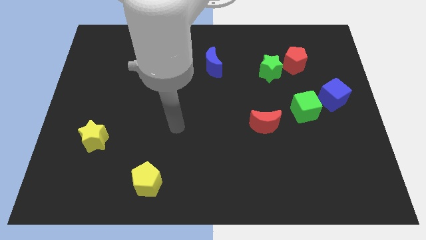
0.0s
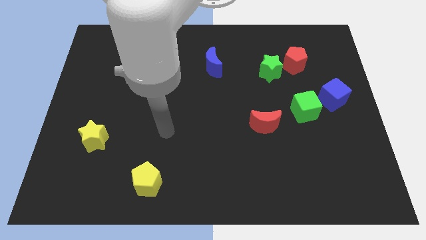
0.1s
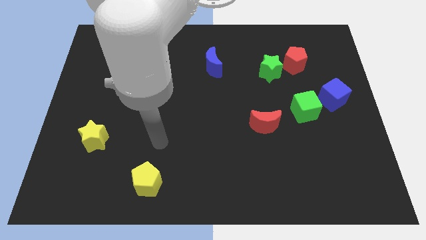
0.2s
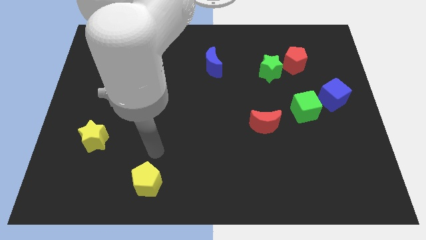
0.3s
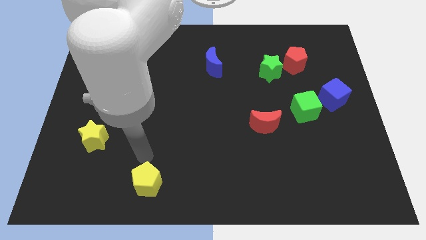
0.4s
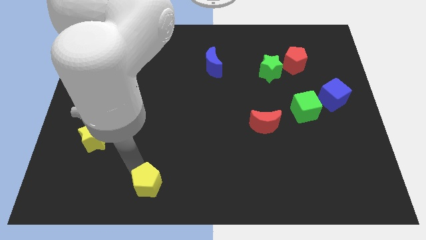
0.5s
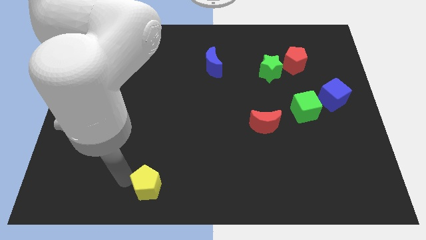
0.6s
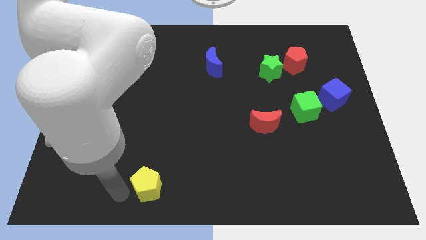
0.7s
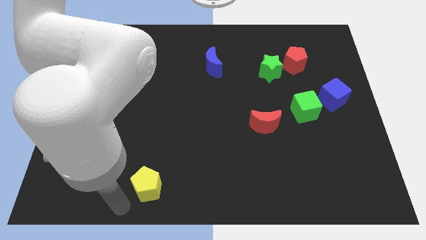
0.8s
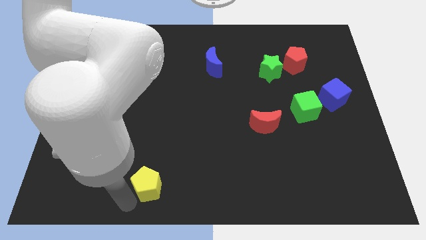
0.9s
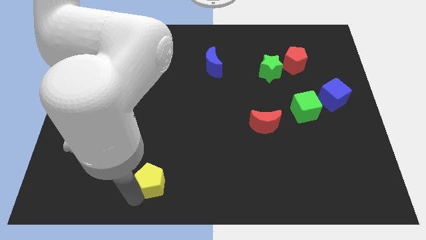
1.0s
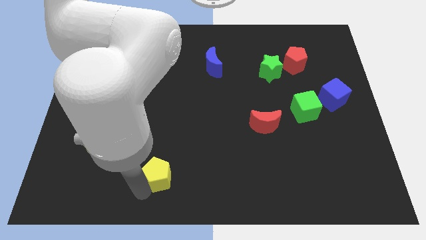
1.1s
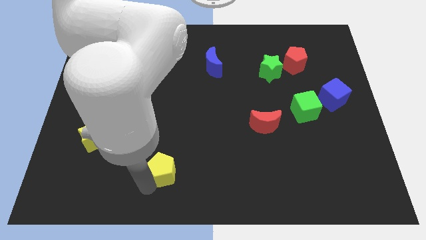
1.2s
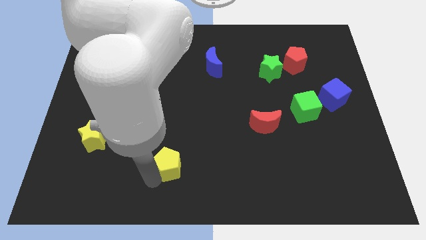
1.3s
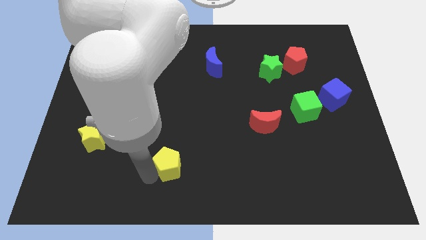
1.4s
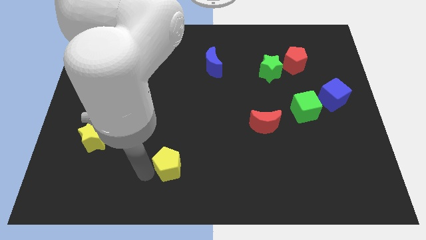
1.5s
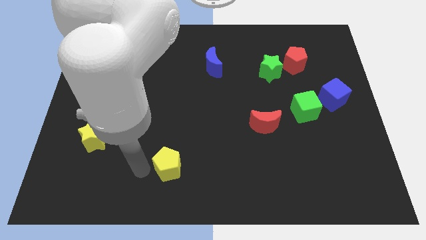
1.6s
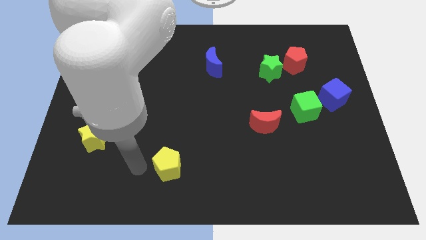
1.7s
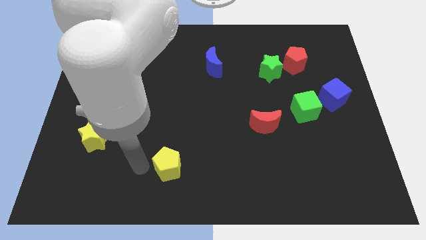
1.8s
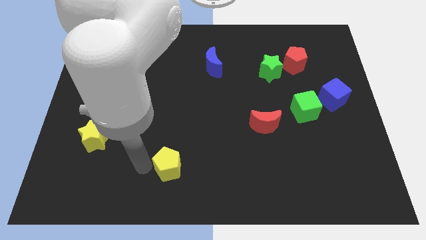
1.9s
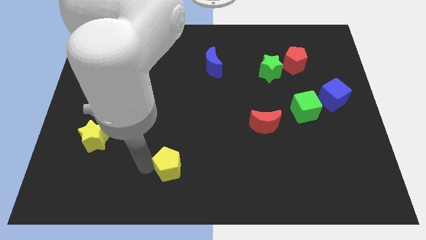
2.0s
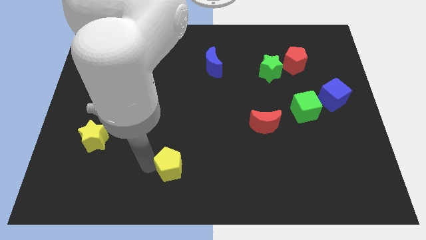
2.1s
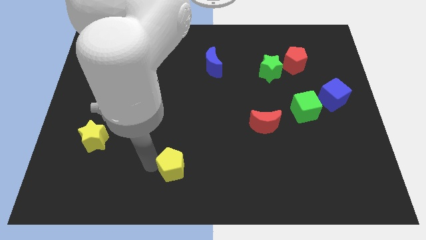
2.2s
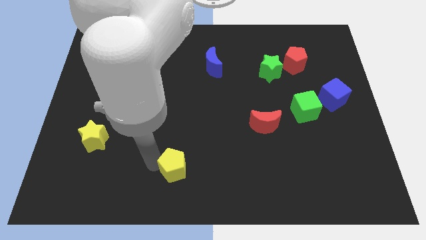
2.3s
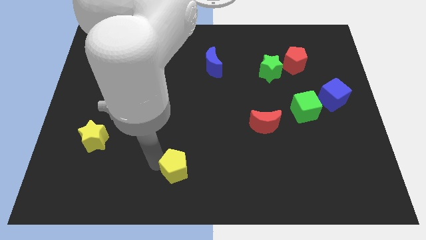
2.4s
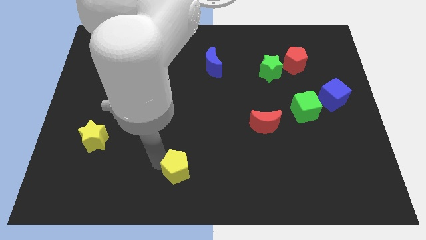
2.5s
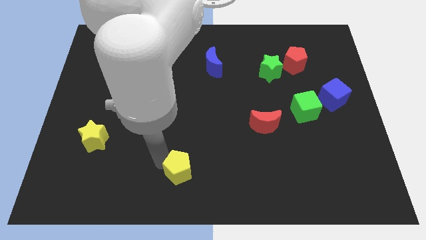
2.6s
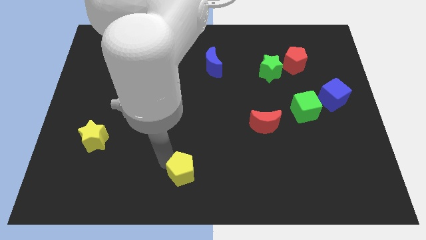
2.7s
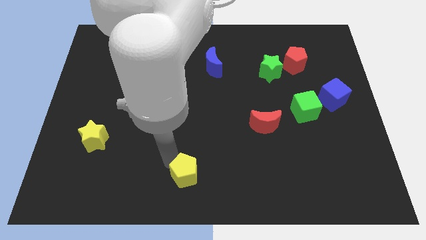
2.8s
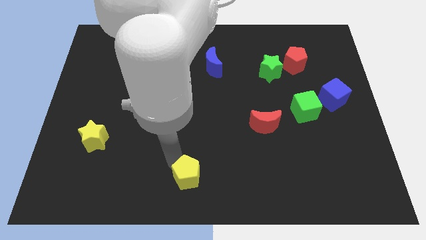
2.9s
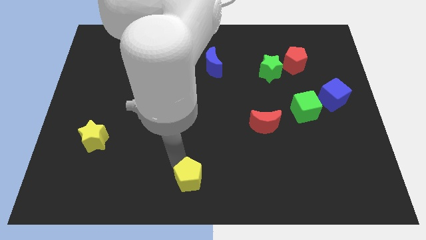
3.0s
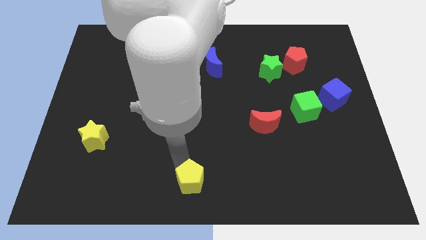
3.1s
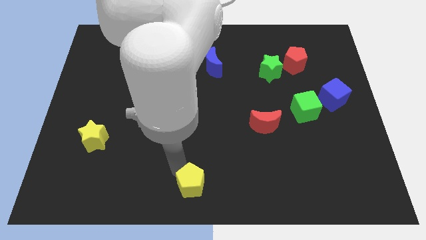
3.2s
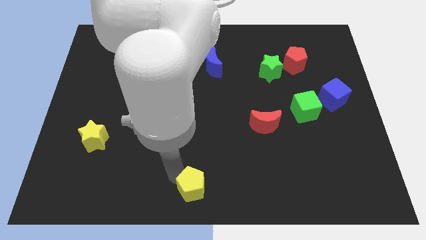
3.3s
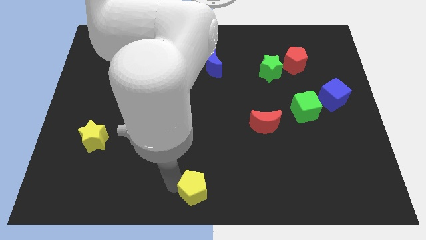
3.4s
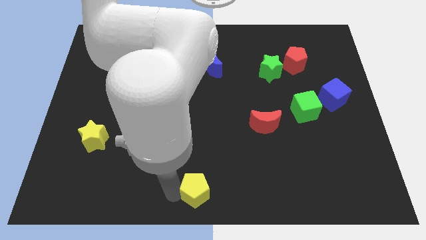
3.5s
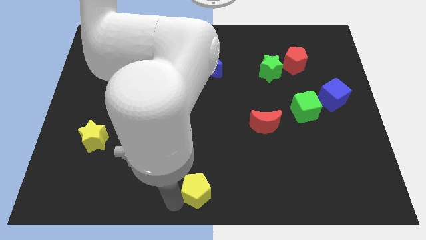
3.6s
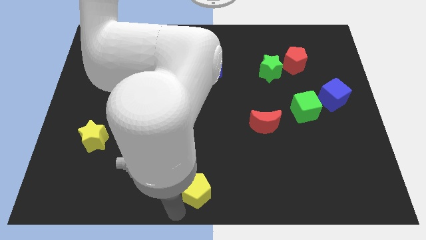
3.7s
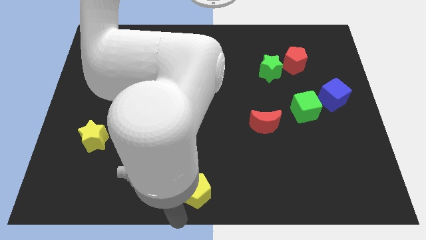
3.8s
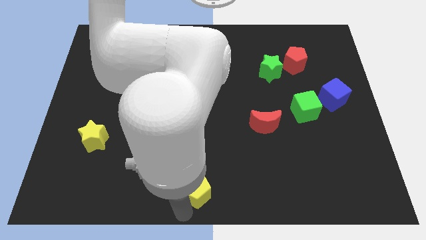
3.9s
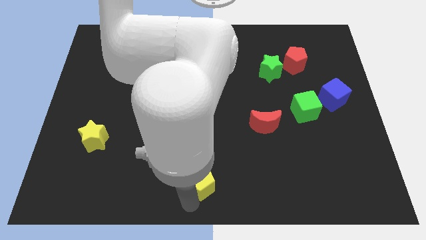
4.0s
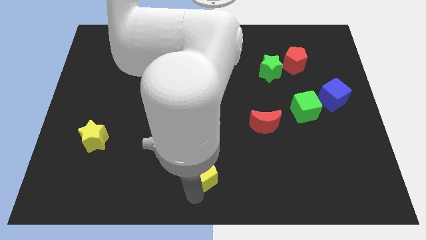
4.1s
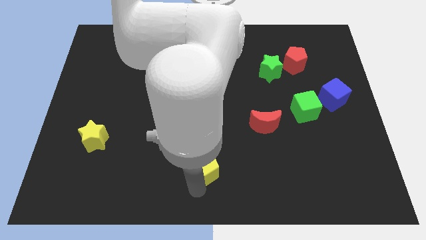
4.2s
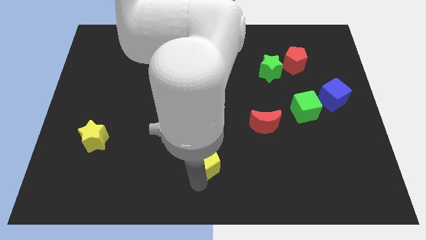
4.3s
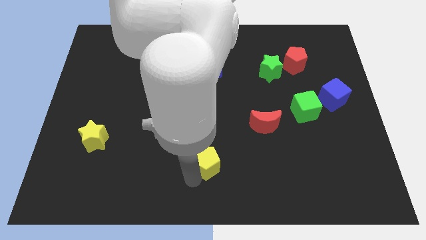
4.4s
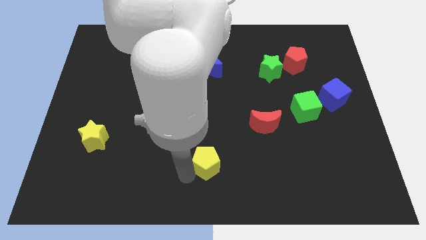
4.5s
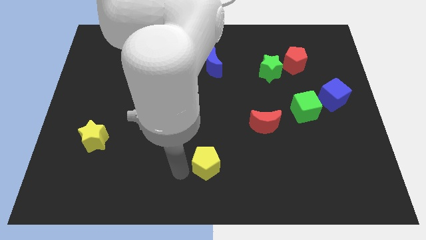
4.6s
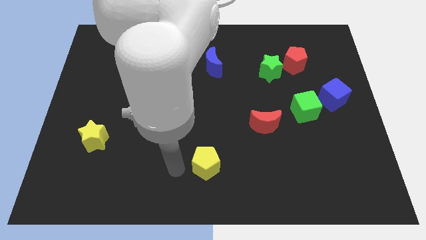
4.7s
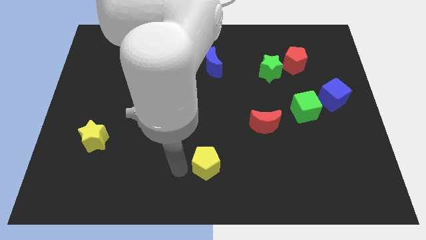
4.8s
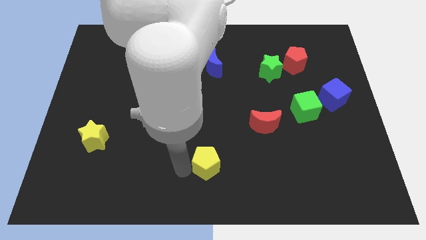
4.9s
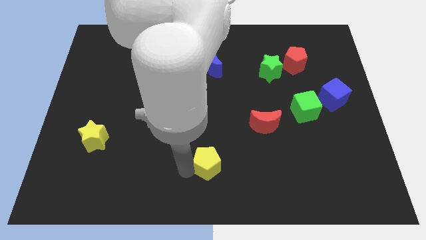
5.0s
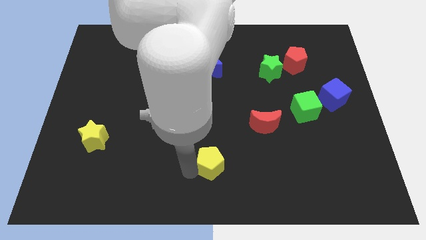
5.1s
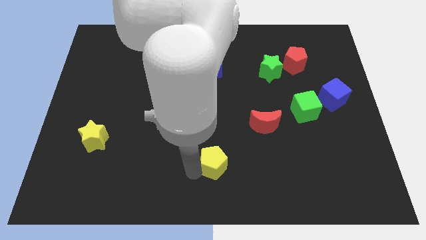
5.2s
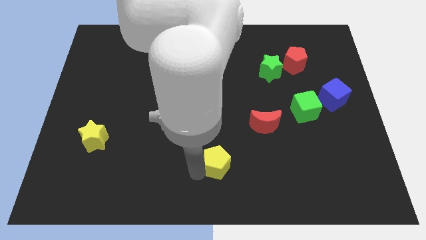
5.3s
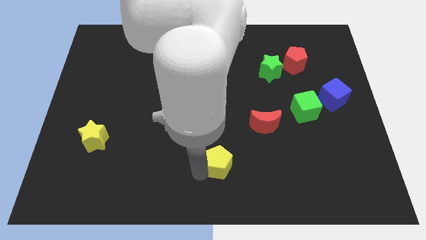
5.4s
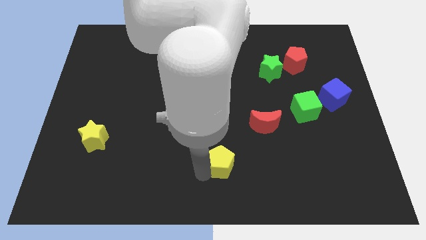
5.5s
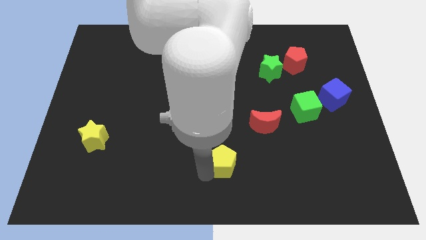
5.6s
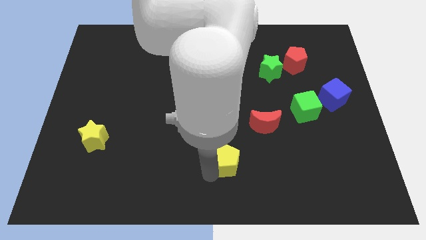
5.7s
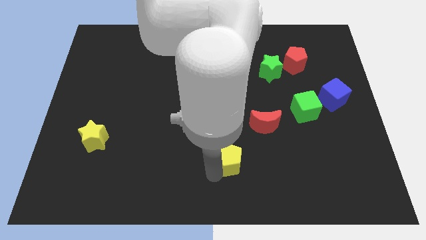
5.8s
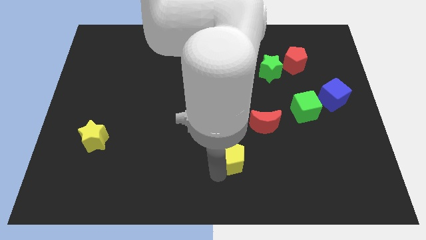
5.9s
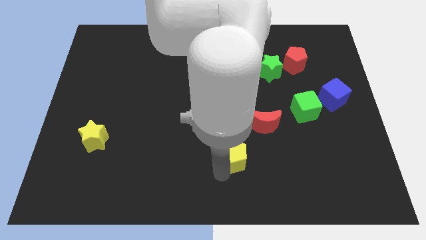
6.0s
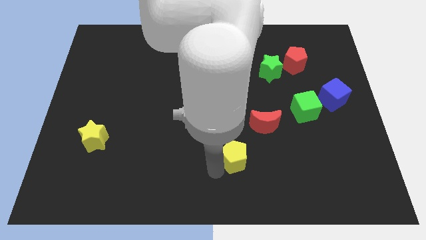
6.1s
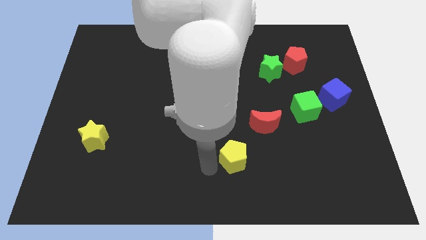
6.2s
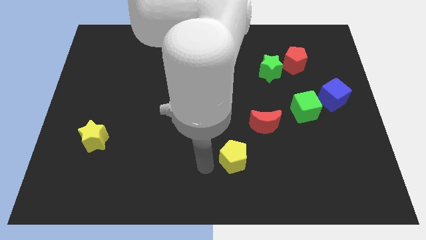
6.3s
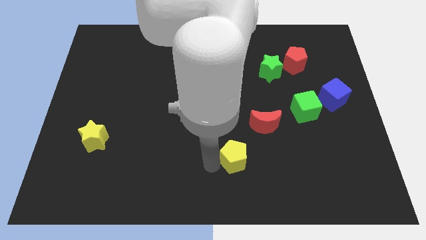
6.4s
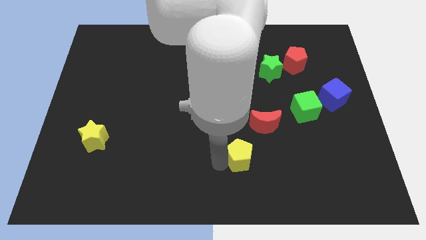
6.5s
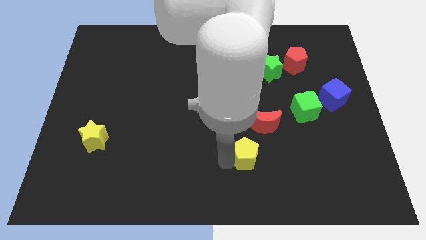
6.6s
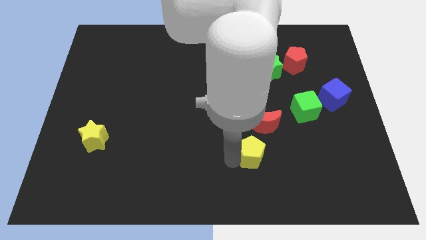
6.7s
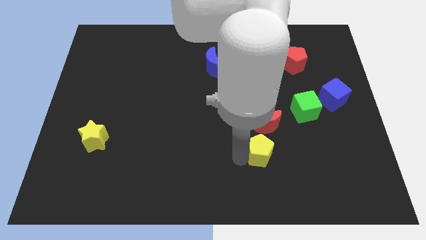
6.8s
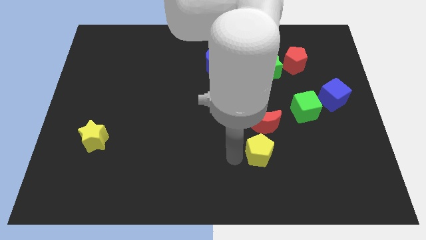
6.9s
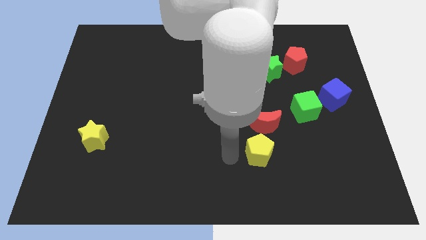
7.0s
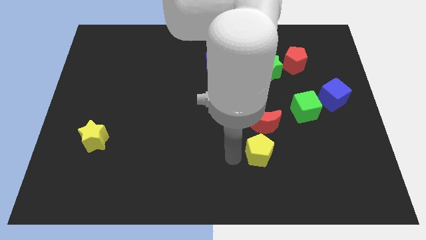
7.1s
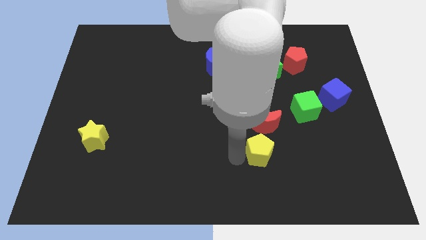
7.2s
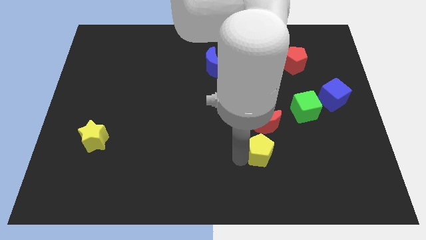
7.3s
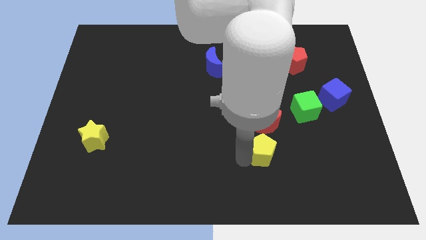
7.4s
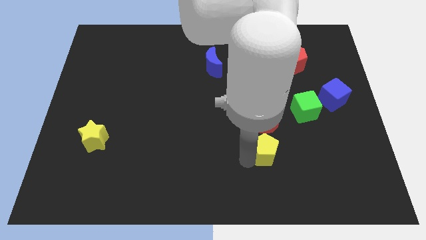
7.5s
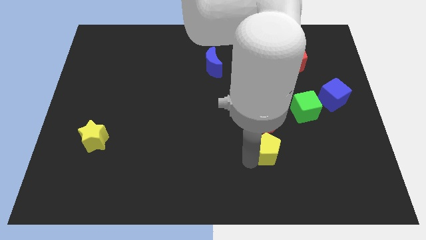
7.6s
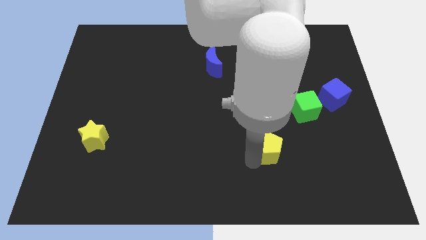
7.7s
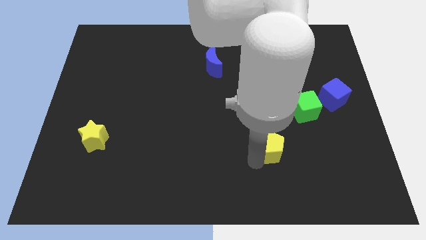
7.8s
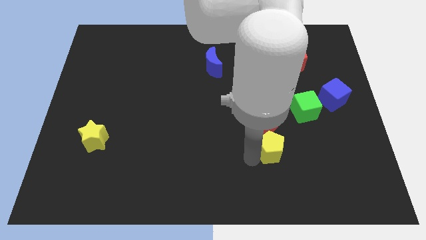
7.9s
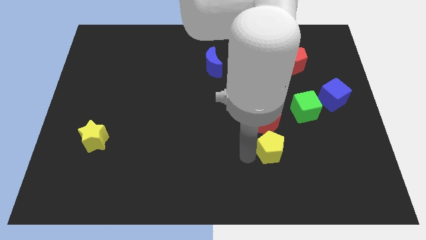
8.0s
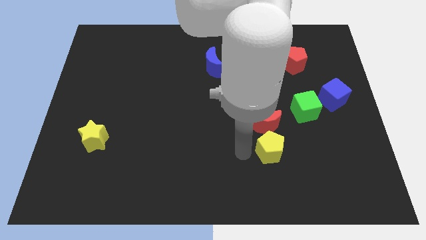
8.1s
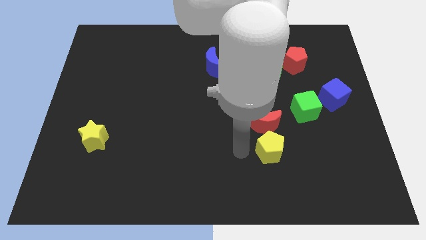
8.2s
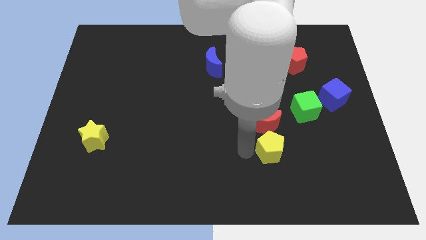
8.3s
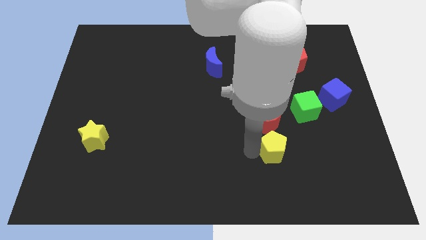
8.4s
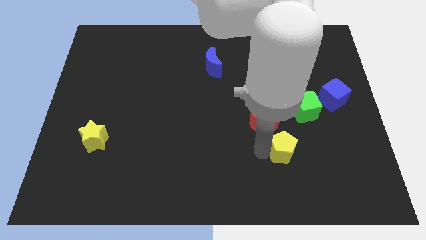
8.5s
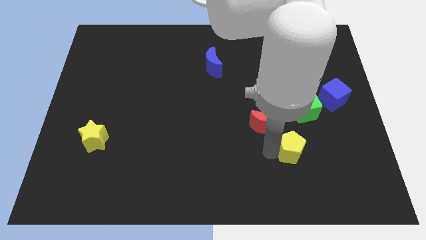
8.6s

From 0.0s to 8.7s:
push the yellow pentagon to the bottom of the green cube
